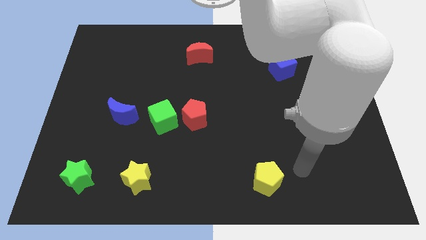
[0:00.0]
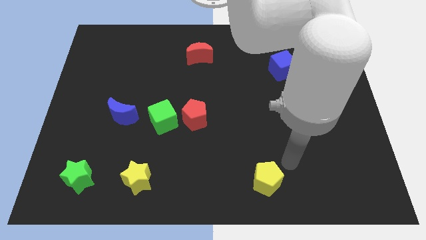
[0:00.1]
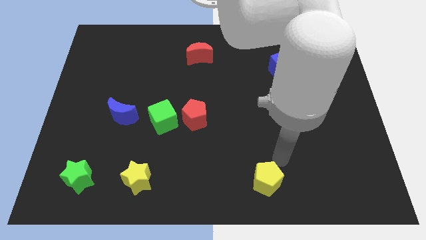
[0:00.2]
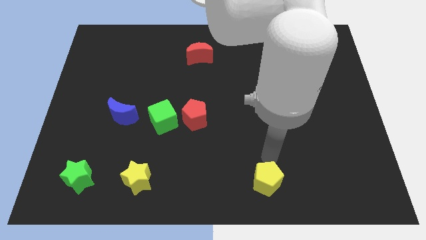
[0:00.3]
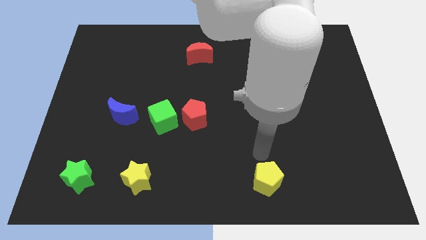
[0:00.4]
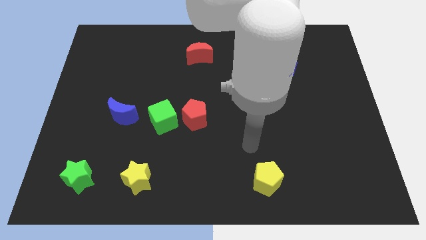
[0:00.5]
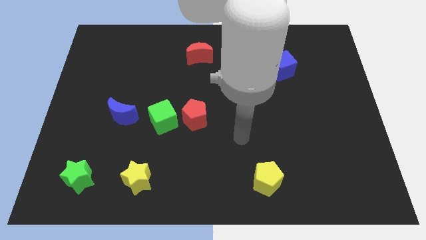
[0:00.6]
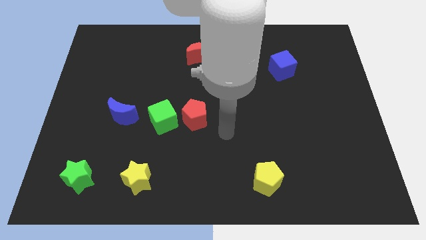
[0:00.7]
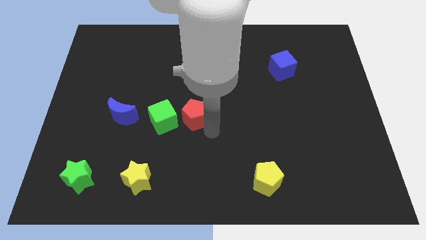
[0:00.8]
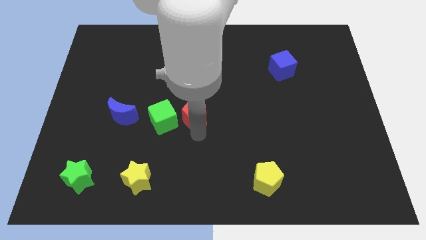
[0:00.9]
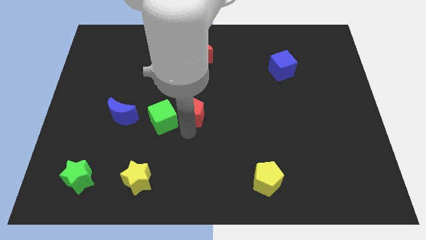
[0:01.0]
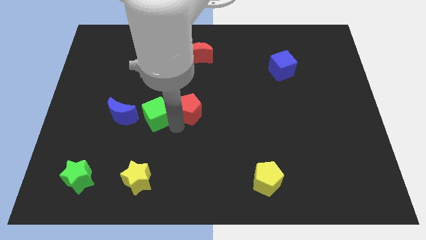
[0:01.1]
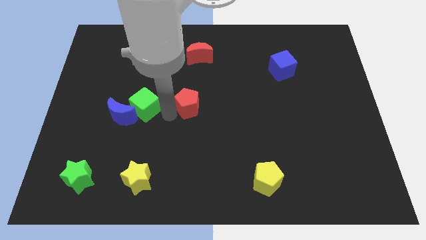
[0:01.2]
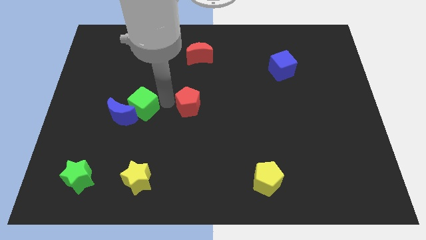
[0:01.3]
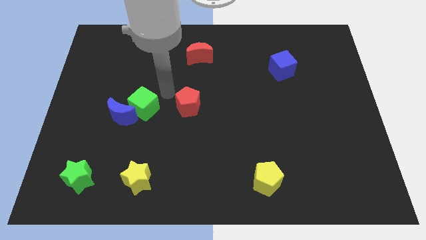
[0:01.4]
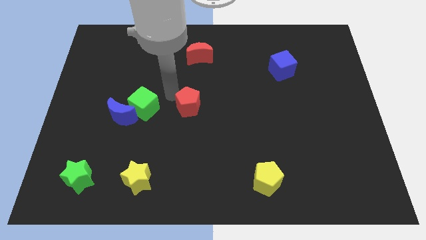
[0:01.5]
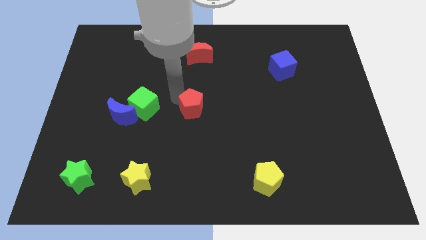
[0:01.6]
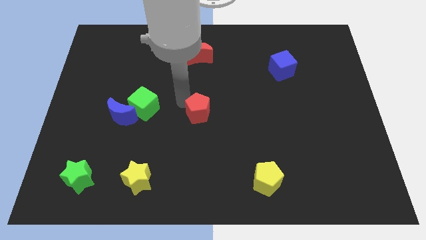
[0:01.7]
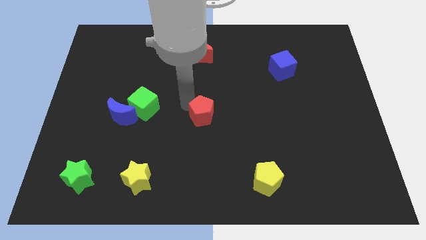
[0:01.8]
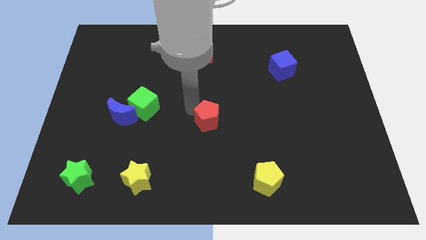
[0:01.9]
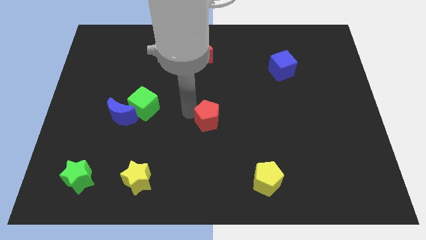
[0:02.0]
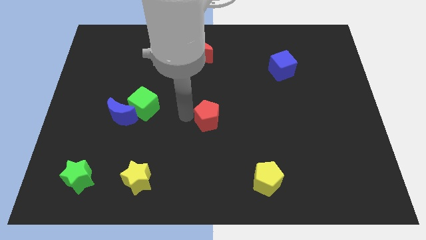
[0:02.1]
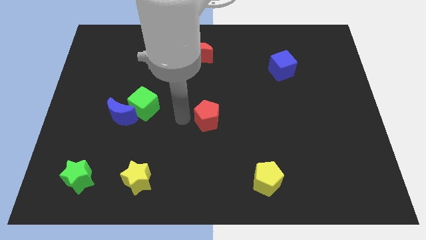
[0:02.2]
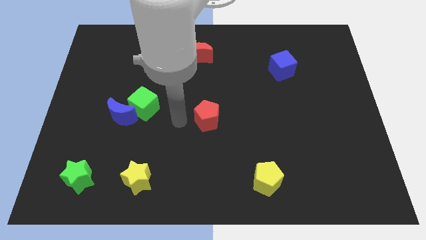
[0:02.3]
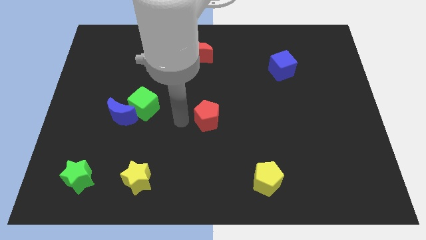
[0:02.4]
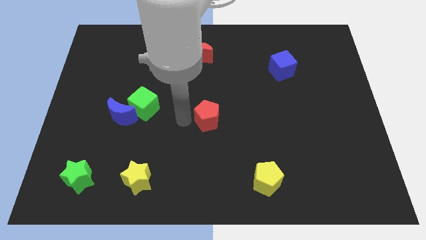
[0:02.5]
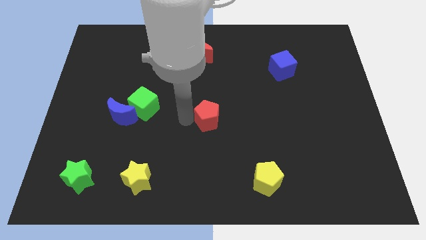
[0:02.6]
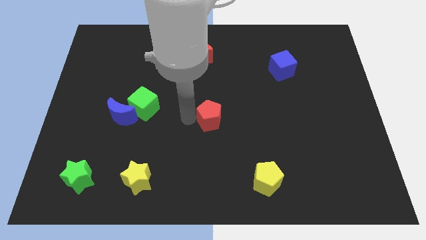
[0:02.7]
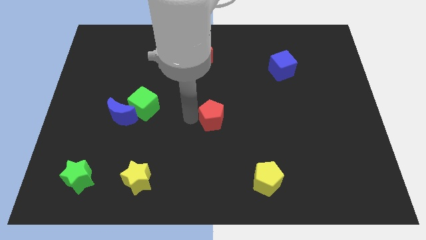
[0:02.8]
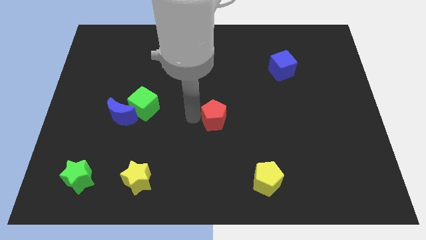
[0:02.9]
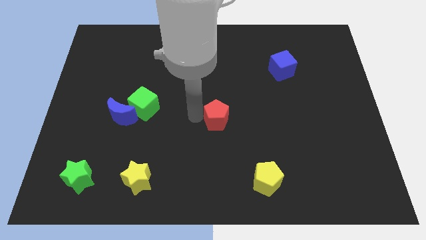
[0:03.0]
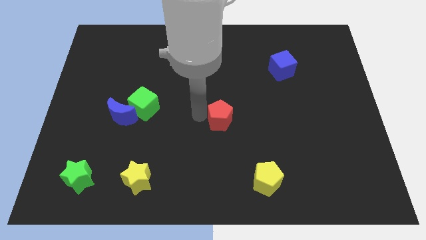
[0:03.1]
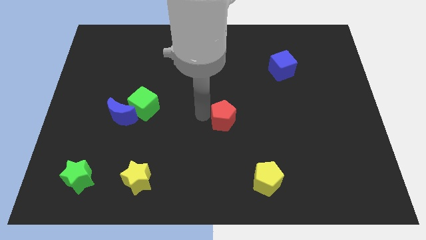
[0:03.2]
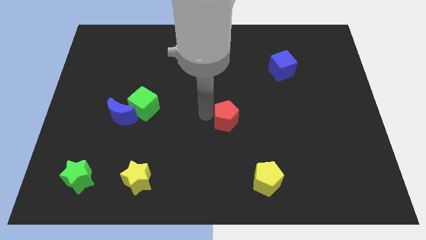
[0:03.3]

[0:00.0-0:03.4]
push the red pentagon to the right a bit

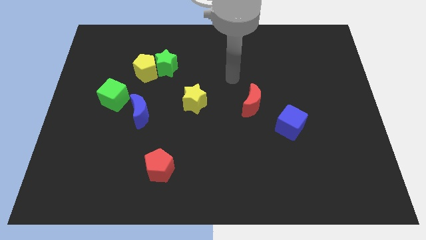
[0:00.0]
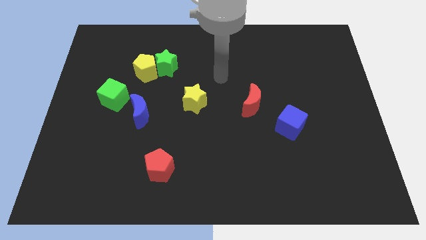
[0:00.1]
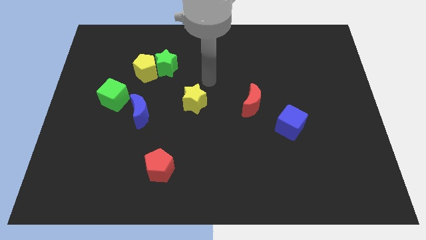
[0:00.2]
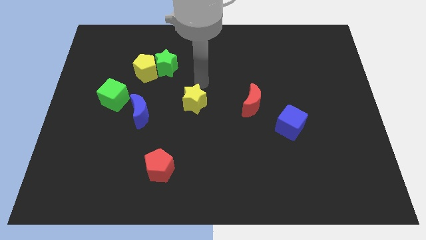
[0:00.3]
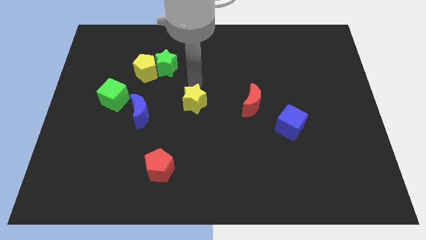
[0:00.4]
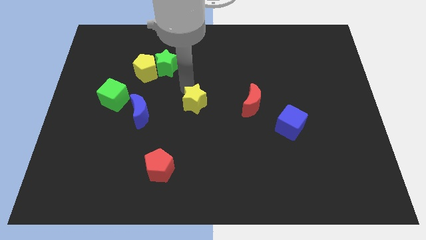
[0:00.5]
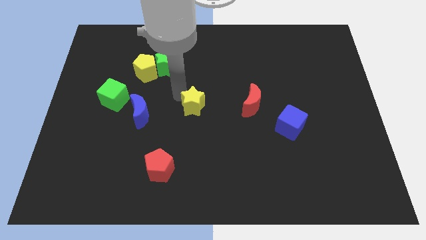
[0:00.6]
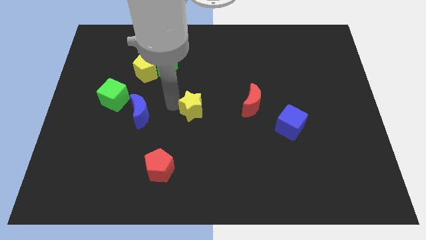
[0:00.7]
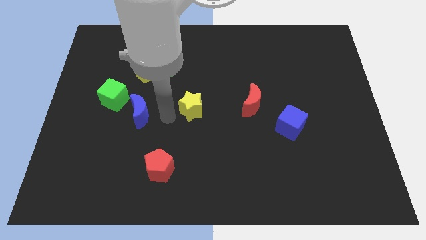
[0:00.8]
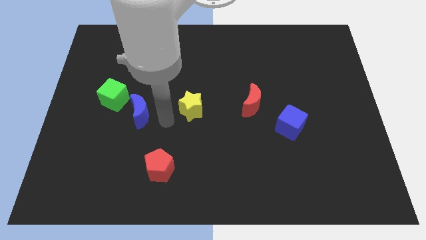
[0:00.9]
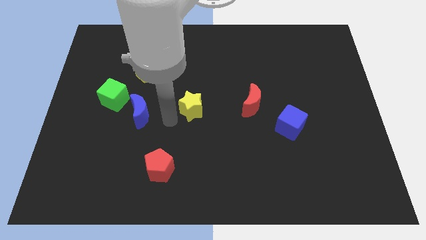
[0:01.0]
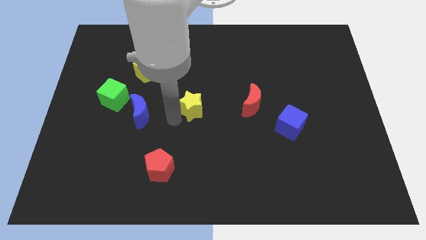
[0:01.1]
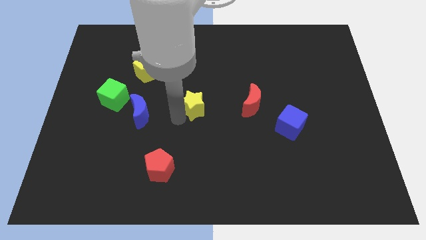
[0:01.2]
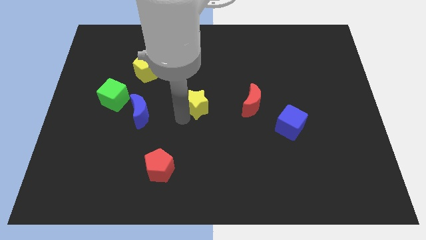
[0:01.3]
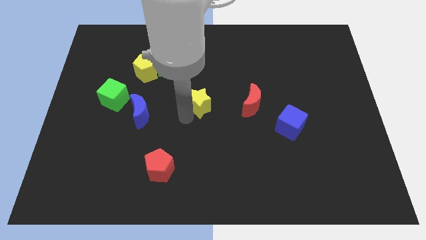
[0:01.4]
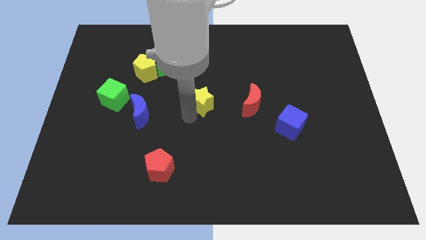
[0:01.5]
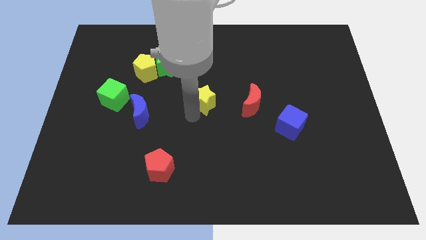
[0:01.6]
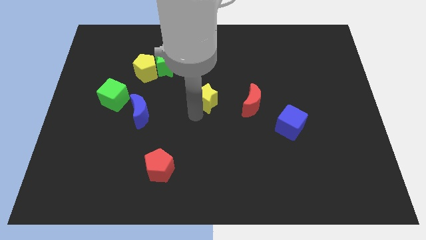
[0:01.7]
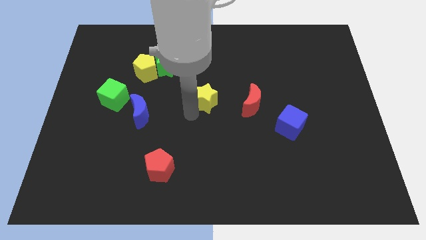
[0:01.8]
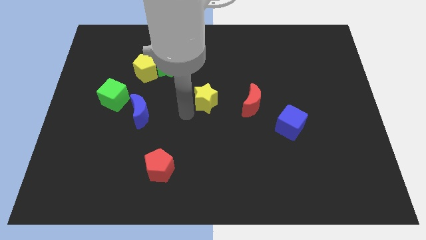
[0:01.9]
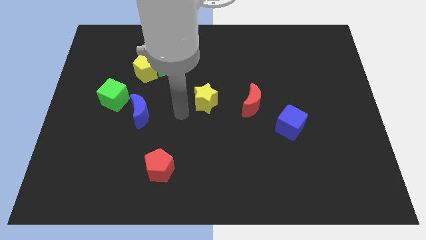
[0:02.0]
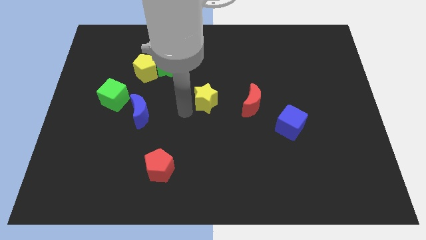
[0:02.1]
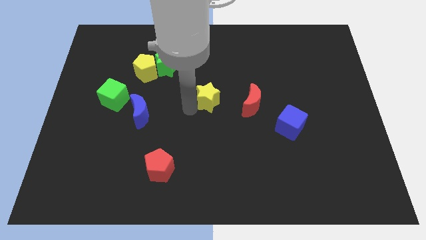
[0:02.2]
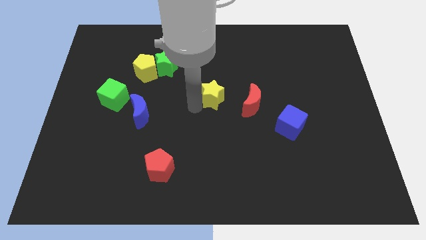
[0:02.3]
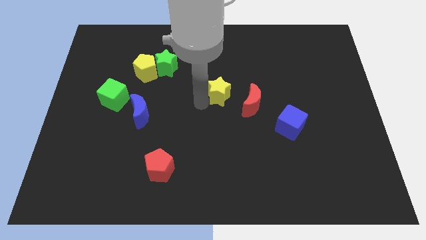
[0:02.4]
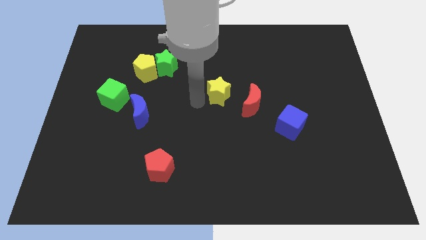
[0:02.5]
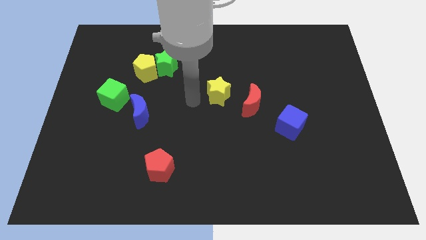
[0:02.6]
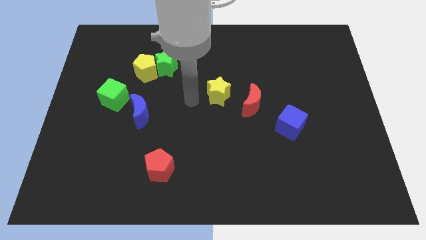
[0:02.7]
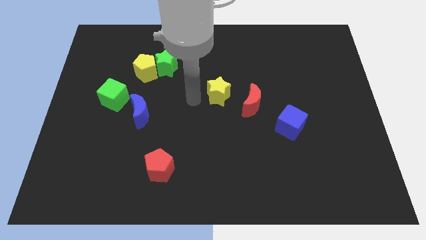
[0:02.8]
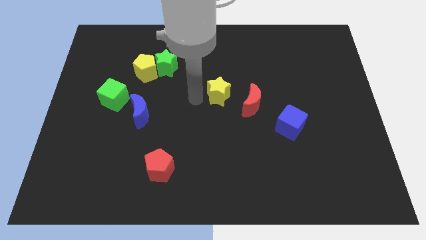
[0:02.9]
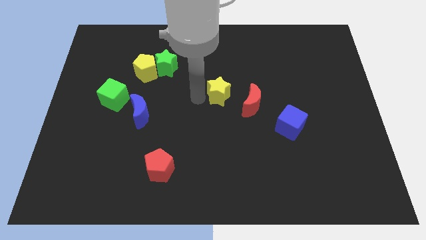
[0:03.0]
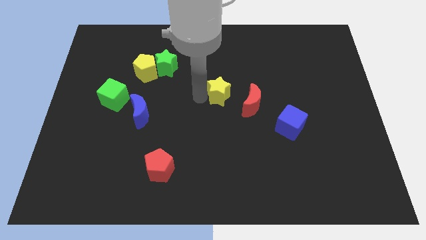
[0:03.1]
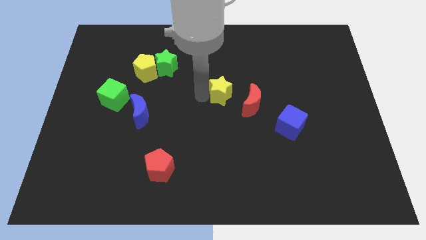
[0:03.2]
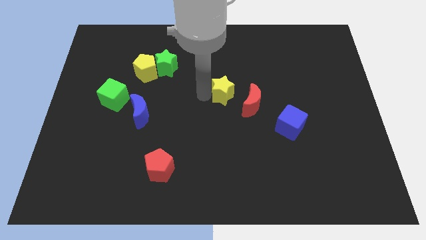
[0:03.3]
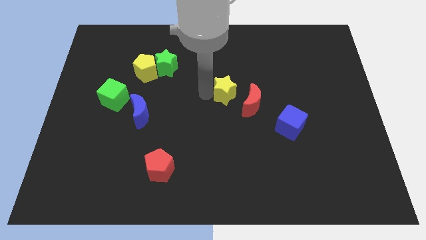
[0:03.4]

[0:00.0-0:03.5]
push the yellow star to the right slightly

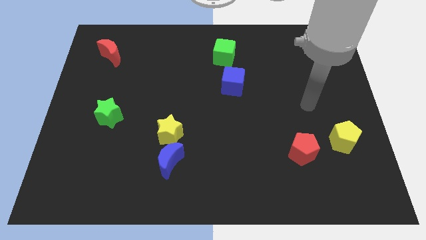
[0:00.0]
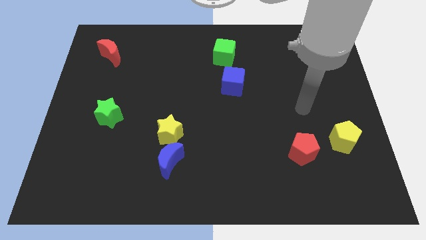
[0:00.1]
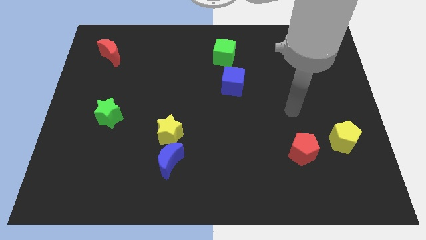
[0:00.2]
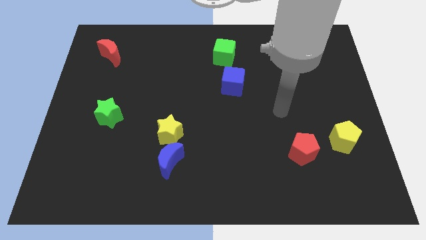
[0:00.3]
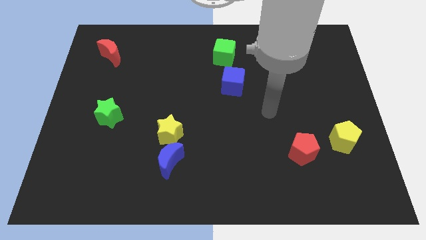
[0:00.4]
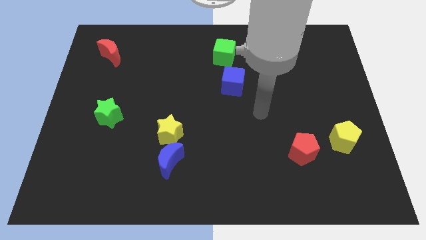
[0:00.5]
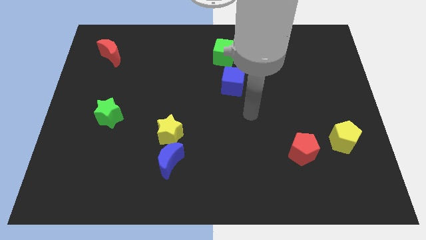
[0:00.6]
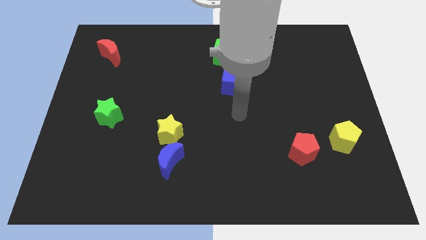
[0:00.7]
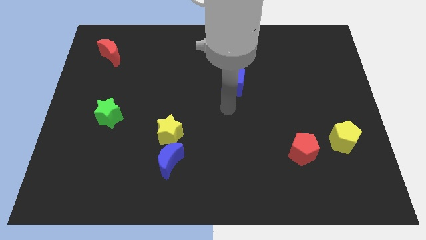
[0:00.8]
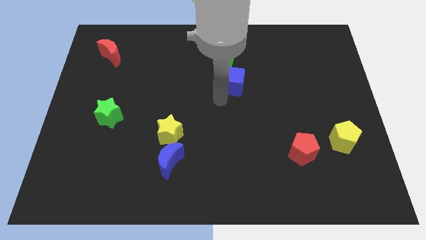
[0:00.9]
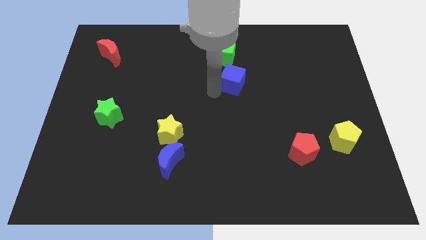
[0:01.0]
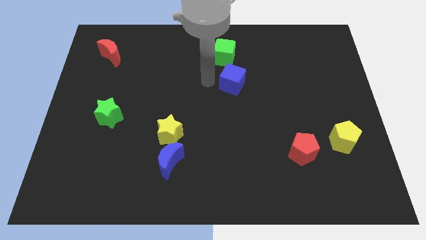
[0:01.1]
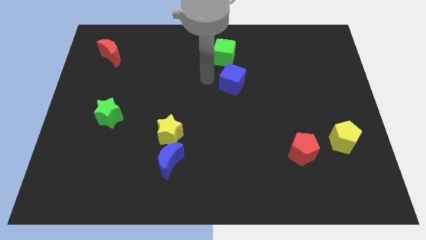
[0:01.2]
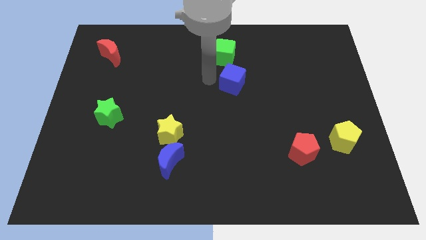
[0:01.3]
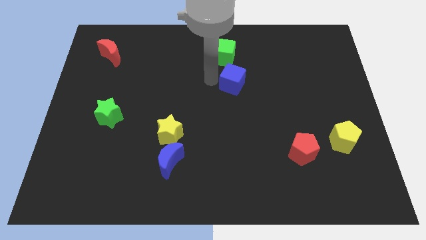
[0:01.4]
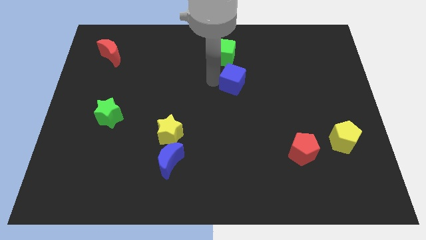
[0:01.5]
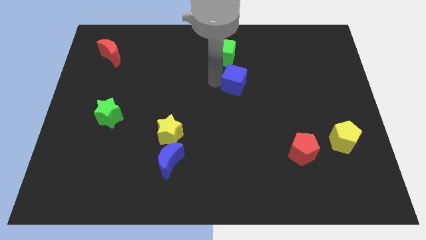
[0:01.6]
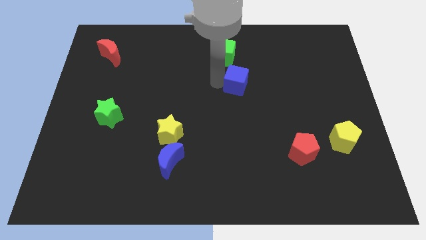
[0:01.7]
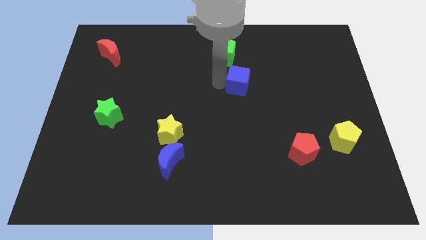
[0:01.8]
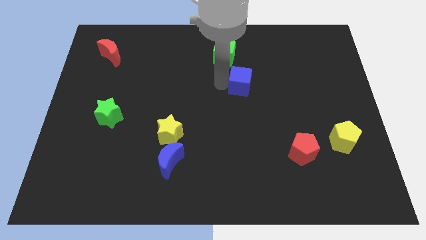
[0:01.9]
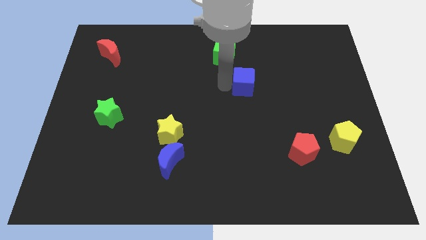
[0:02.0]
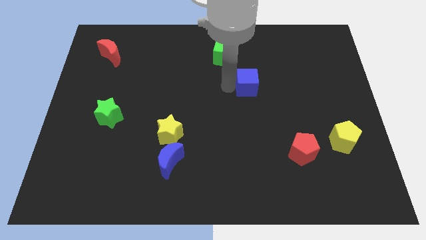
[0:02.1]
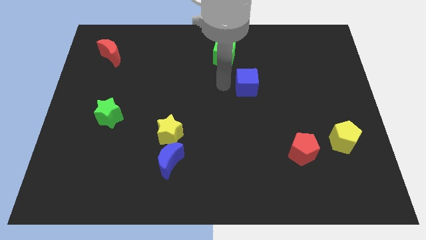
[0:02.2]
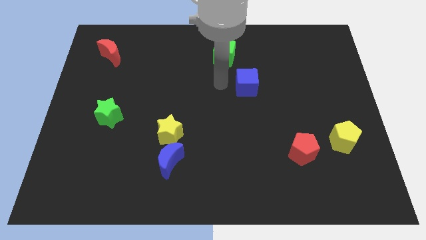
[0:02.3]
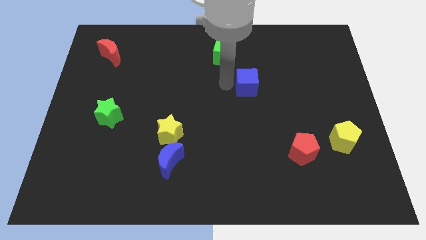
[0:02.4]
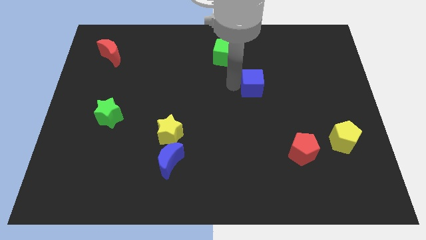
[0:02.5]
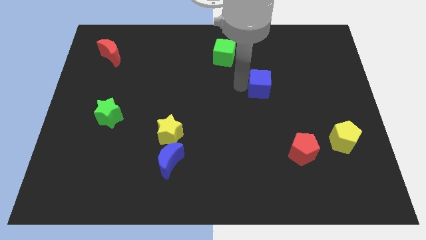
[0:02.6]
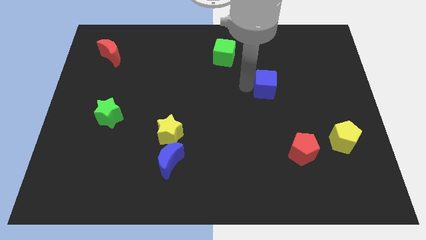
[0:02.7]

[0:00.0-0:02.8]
move the blue cube right slightly
